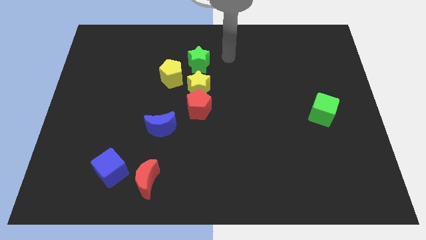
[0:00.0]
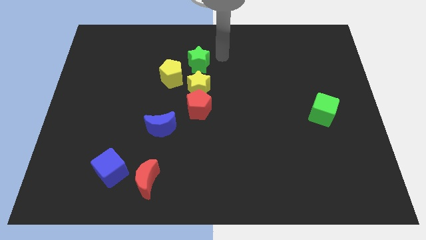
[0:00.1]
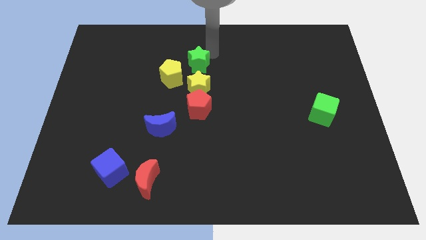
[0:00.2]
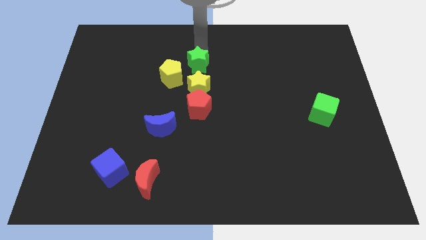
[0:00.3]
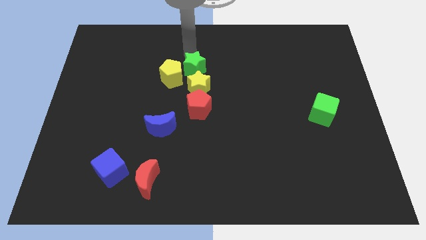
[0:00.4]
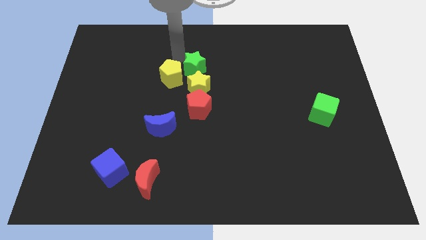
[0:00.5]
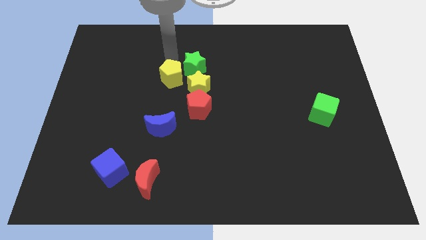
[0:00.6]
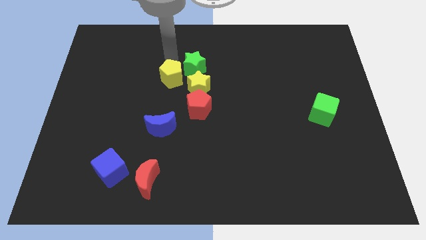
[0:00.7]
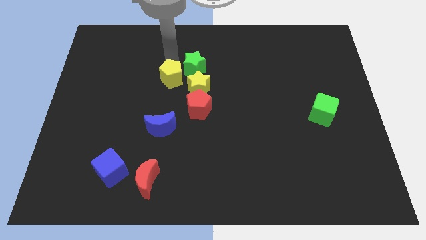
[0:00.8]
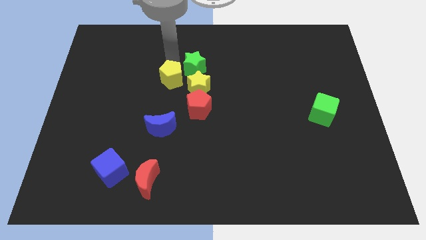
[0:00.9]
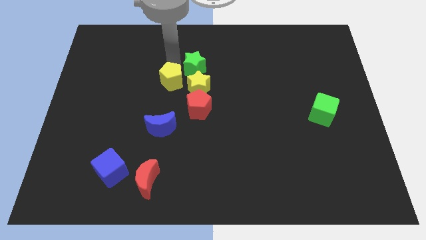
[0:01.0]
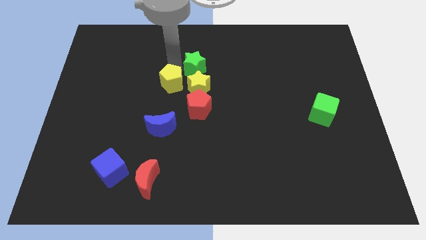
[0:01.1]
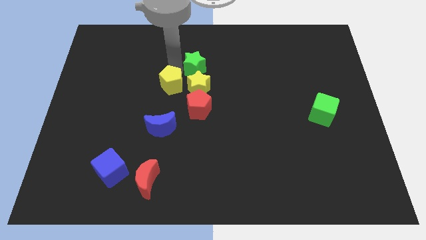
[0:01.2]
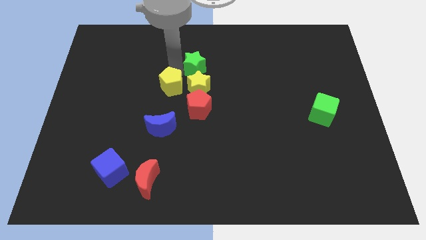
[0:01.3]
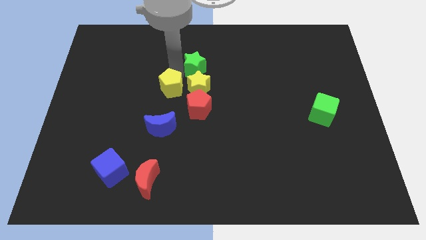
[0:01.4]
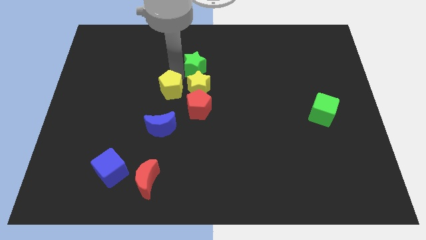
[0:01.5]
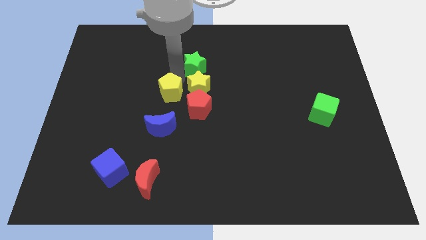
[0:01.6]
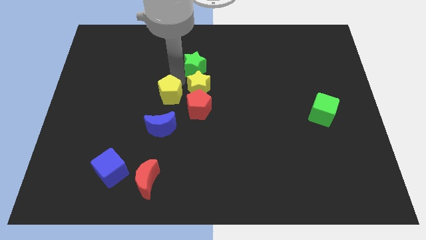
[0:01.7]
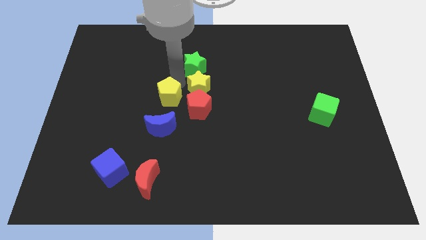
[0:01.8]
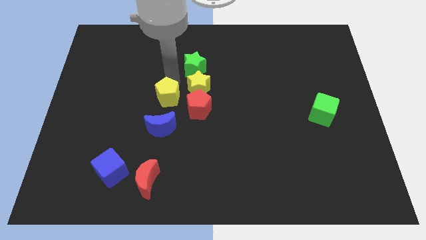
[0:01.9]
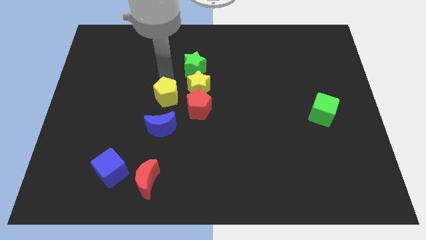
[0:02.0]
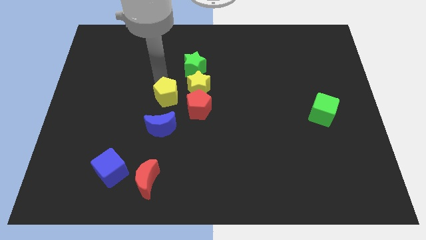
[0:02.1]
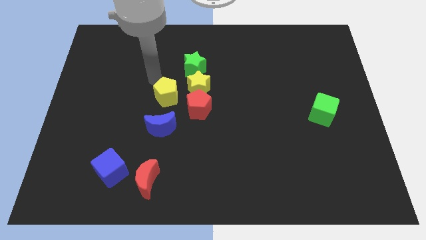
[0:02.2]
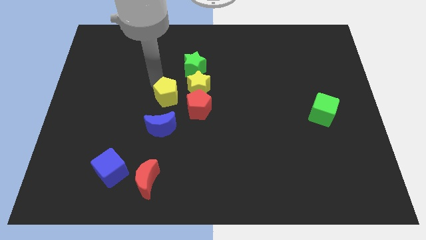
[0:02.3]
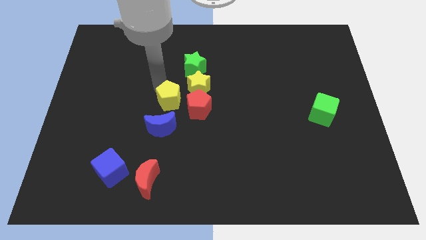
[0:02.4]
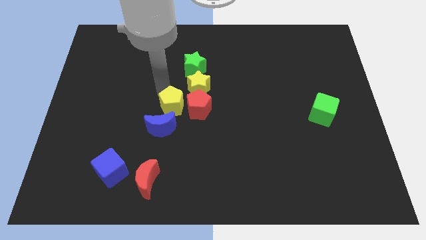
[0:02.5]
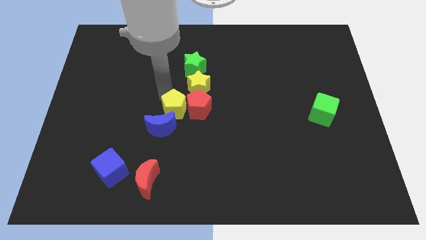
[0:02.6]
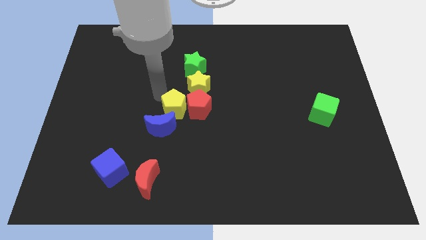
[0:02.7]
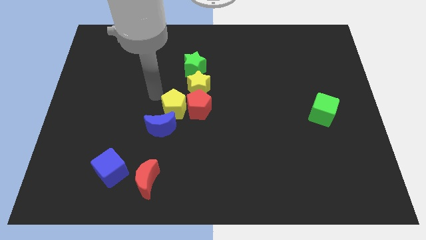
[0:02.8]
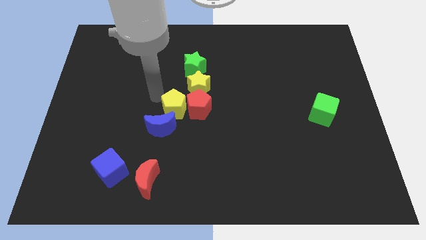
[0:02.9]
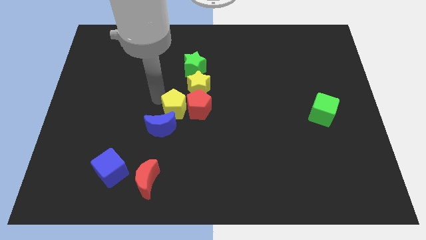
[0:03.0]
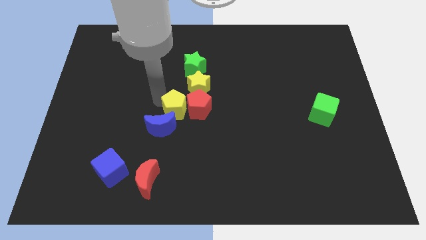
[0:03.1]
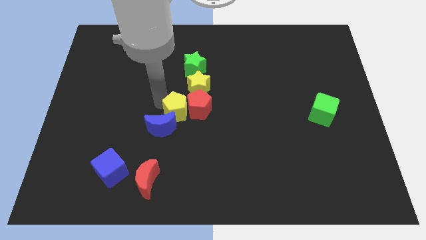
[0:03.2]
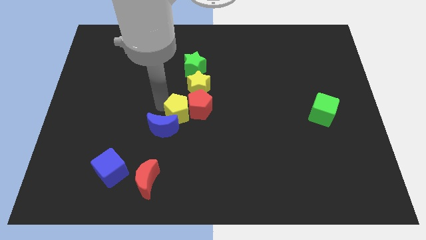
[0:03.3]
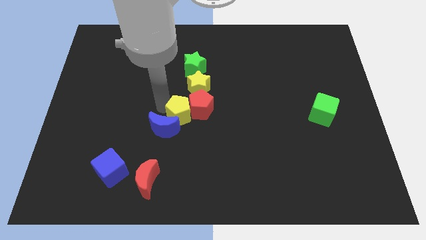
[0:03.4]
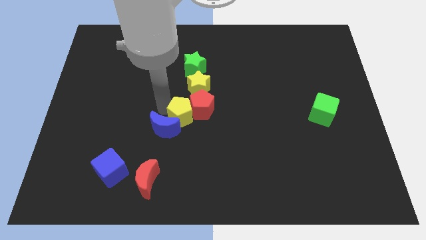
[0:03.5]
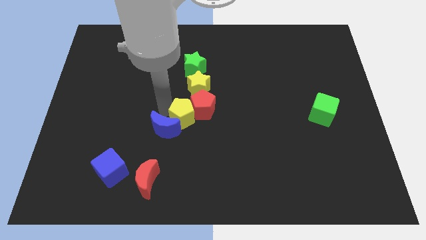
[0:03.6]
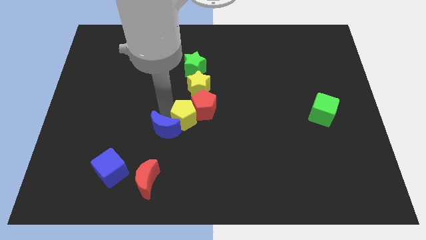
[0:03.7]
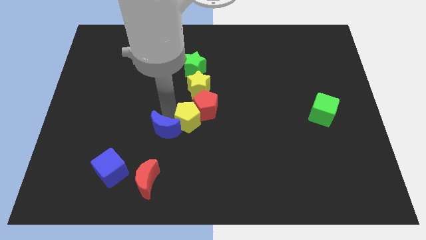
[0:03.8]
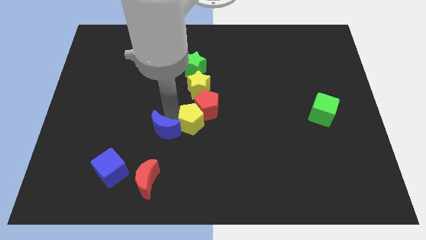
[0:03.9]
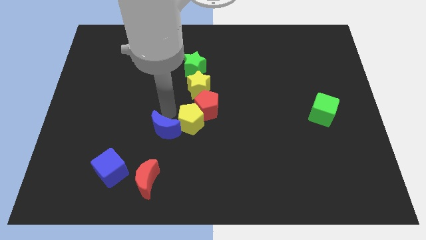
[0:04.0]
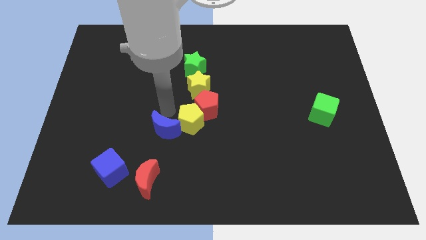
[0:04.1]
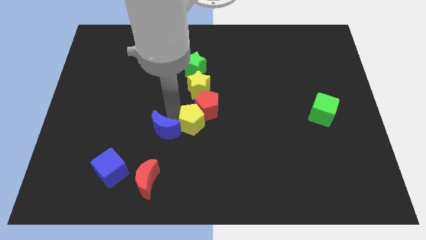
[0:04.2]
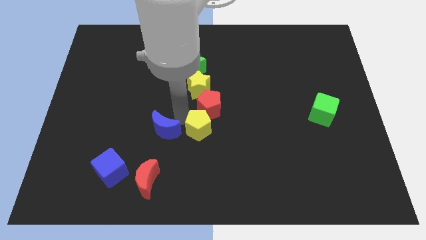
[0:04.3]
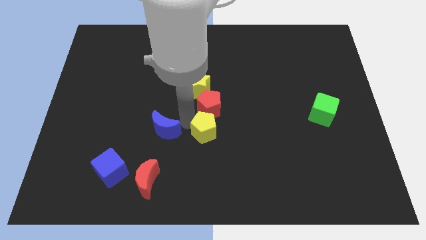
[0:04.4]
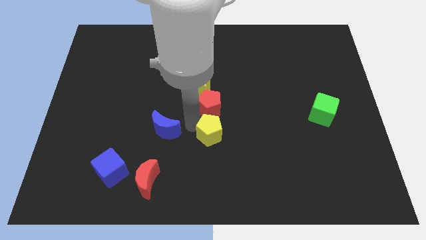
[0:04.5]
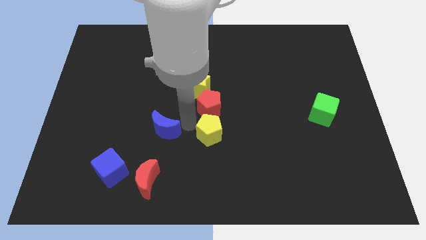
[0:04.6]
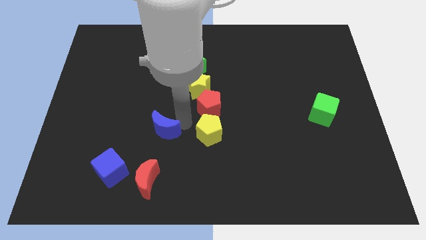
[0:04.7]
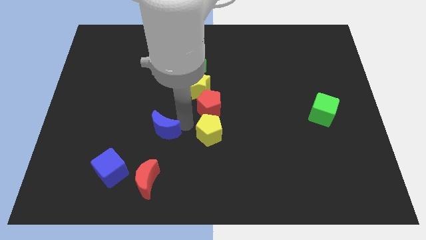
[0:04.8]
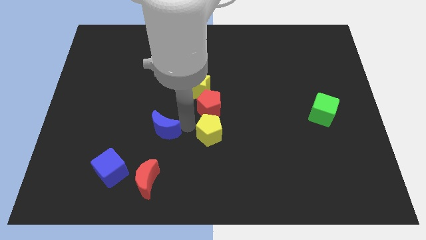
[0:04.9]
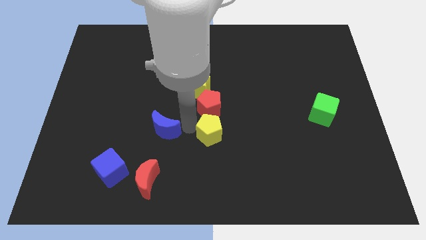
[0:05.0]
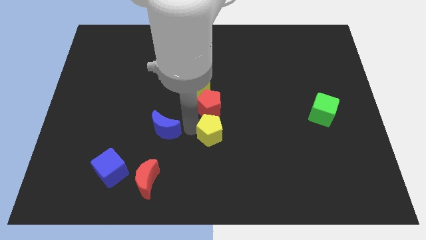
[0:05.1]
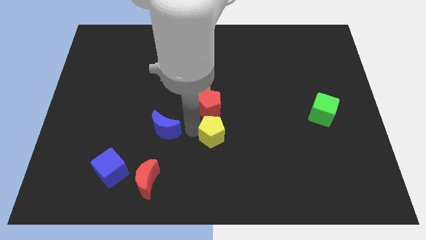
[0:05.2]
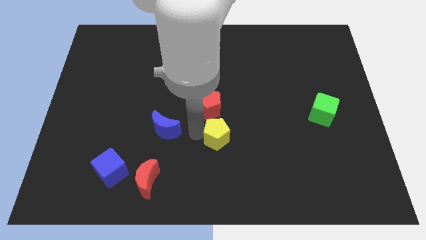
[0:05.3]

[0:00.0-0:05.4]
push the yellow pentagon downwards and right

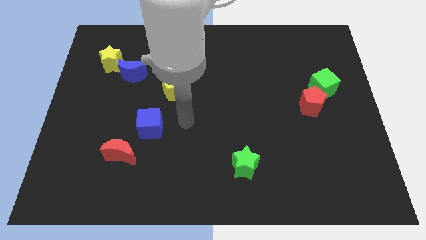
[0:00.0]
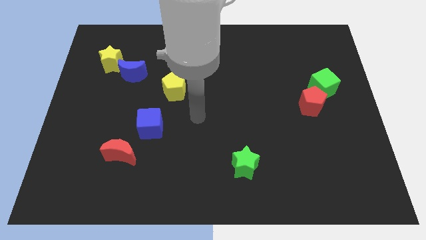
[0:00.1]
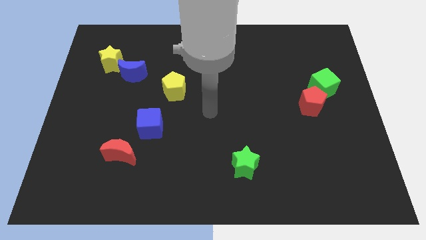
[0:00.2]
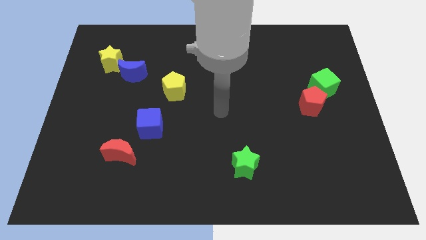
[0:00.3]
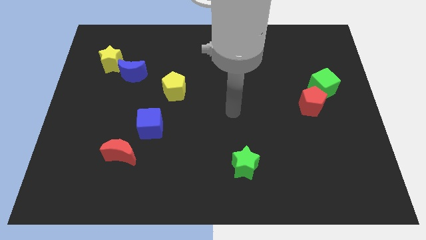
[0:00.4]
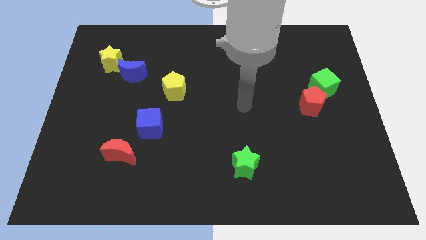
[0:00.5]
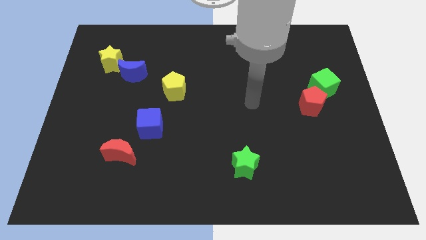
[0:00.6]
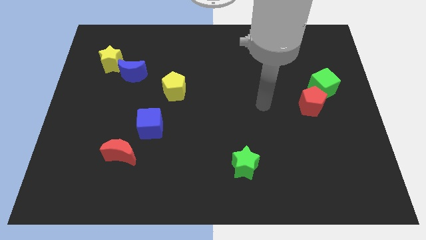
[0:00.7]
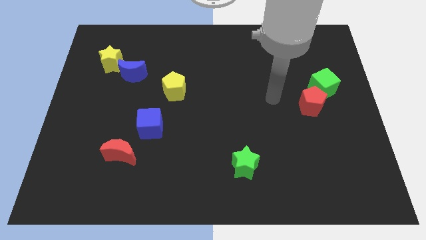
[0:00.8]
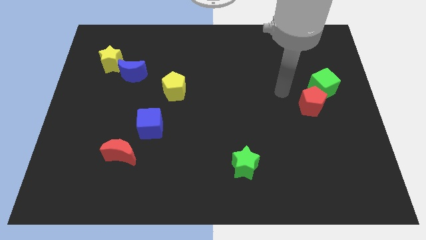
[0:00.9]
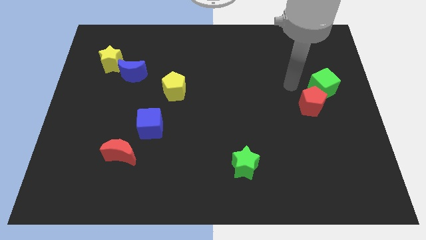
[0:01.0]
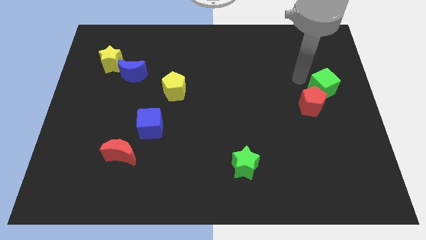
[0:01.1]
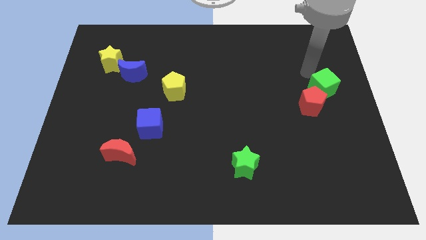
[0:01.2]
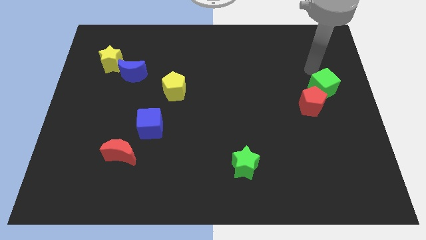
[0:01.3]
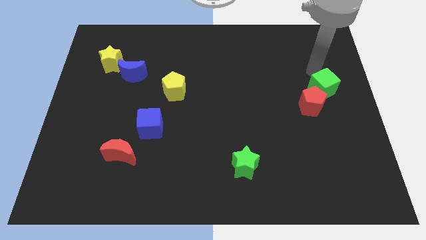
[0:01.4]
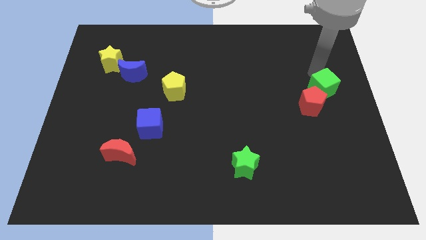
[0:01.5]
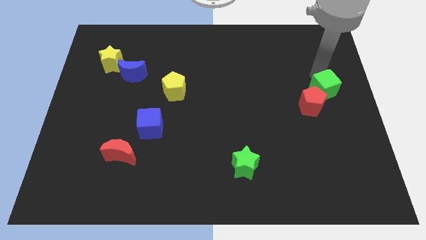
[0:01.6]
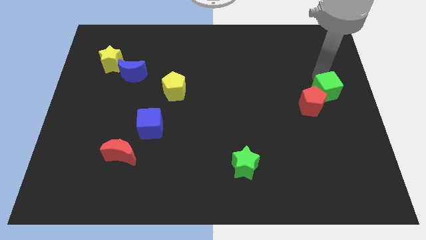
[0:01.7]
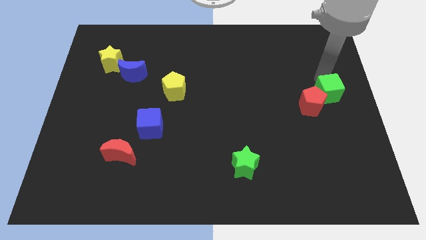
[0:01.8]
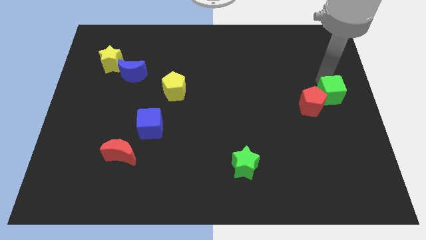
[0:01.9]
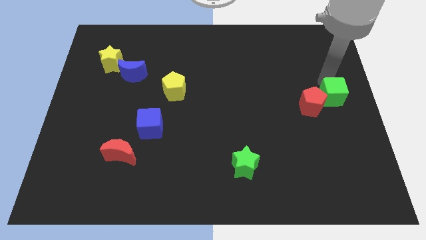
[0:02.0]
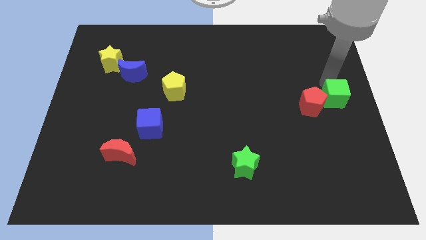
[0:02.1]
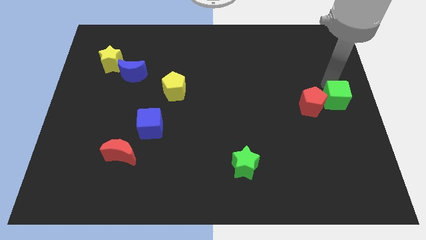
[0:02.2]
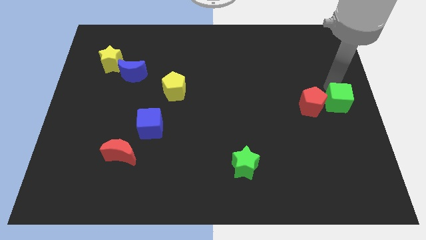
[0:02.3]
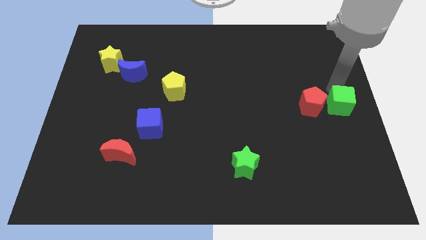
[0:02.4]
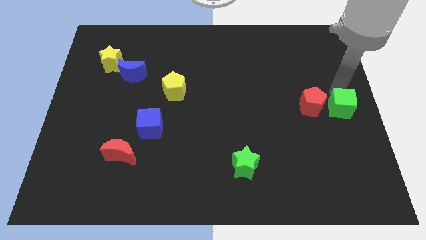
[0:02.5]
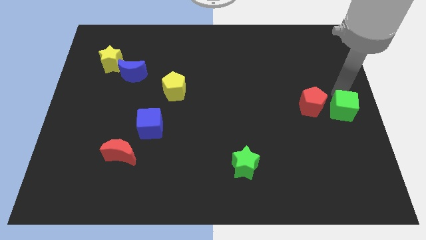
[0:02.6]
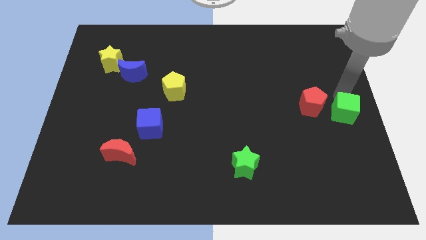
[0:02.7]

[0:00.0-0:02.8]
slide the green cube slightly downwards

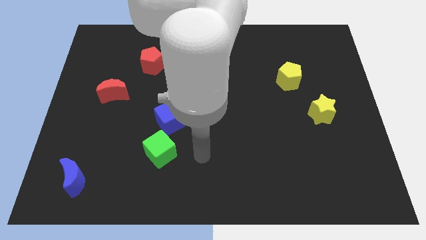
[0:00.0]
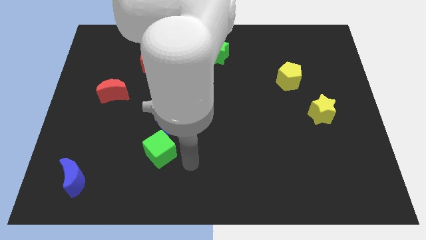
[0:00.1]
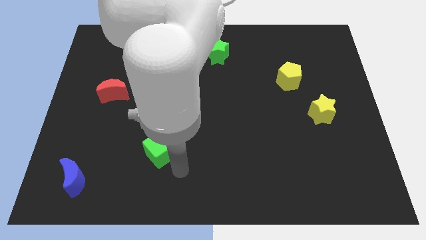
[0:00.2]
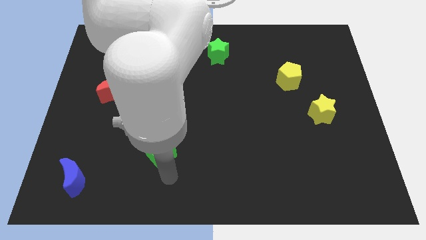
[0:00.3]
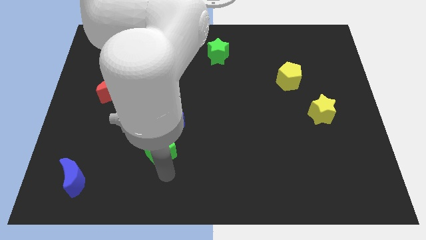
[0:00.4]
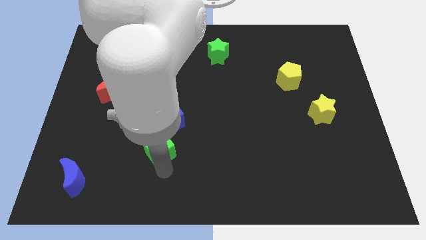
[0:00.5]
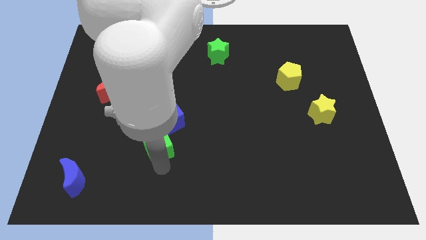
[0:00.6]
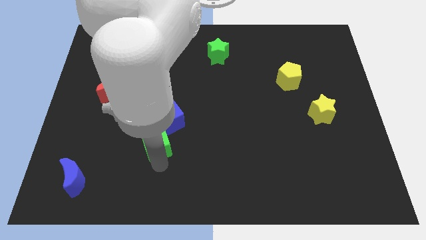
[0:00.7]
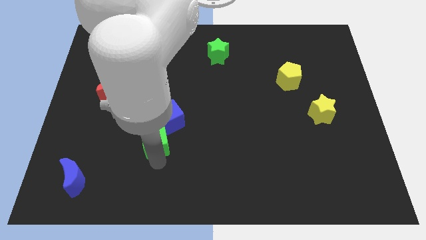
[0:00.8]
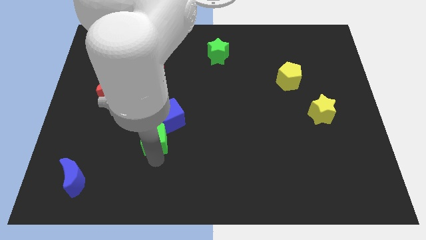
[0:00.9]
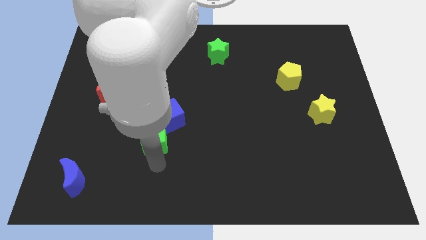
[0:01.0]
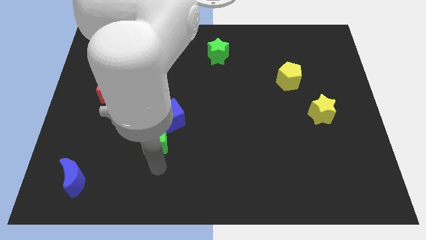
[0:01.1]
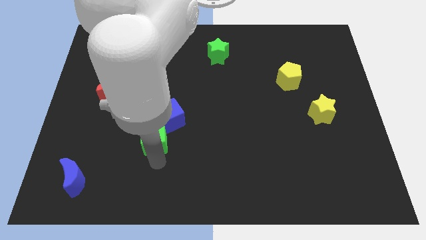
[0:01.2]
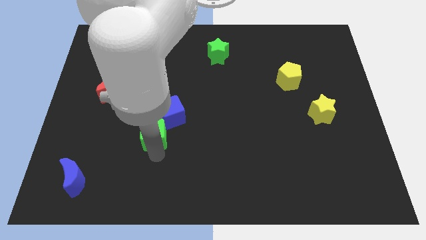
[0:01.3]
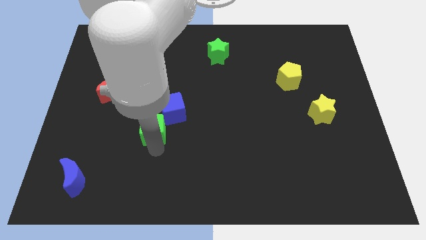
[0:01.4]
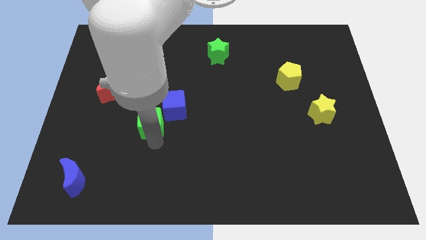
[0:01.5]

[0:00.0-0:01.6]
move the green cube upwards somewhat
